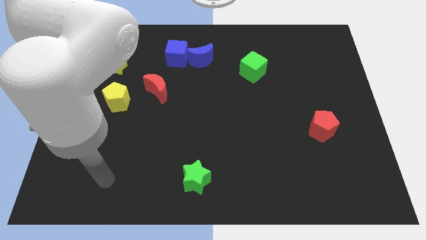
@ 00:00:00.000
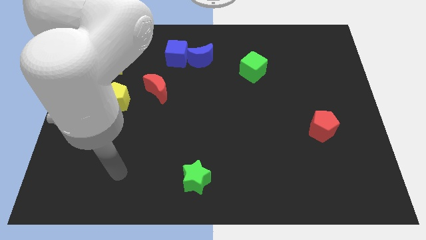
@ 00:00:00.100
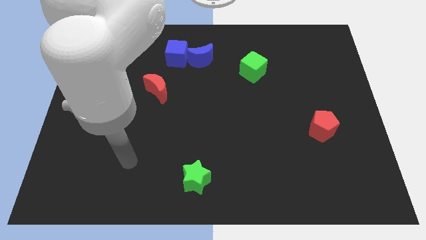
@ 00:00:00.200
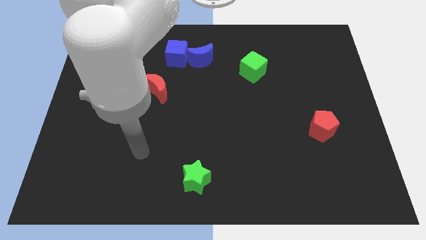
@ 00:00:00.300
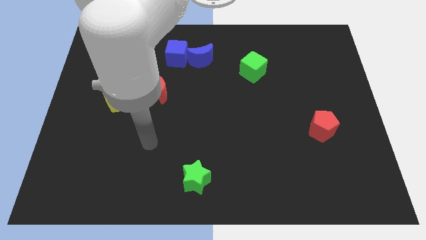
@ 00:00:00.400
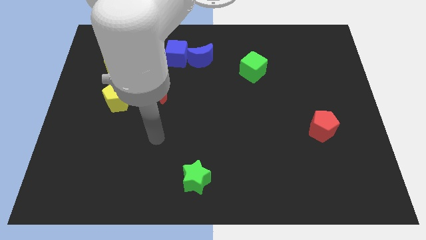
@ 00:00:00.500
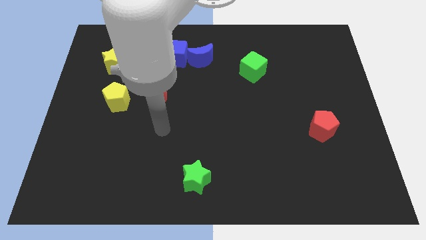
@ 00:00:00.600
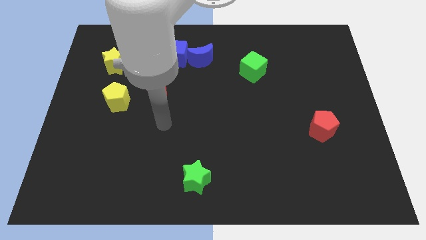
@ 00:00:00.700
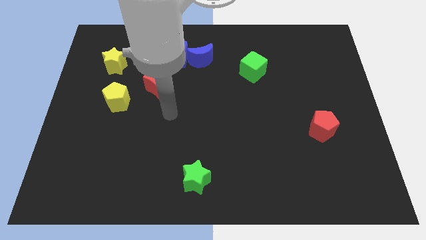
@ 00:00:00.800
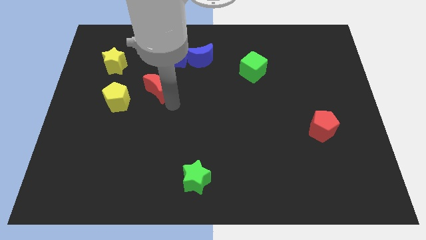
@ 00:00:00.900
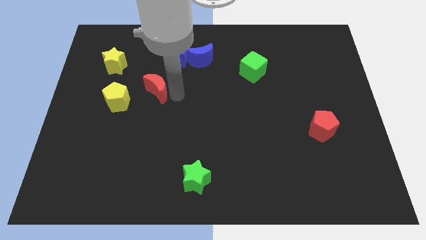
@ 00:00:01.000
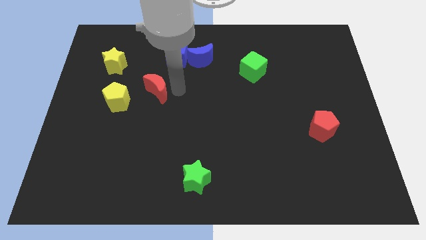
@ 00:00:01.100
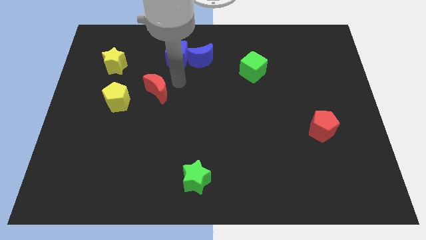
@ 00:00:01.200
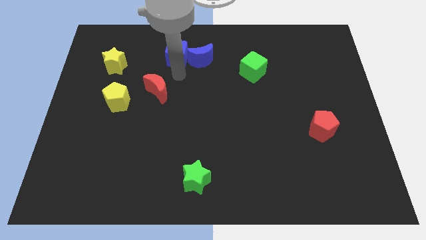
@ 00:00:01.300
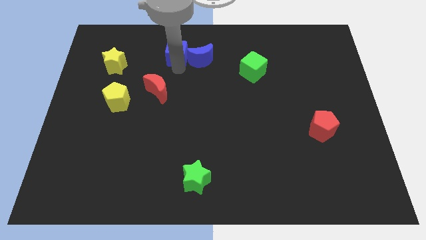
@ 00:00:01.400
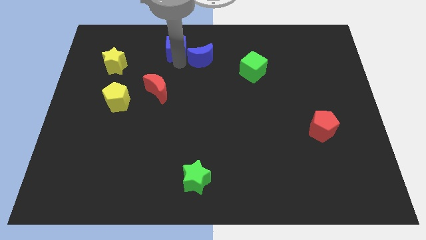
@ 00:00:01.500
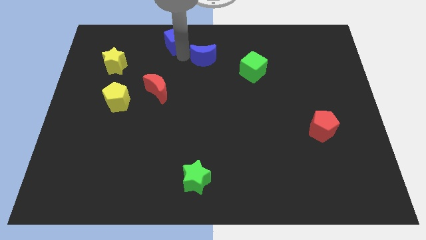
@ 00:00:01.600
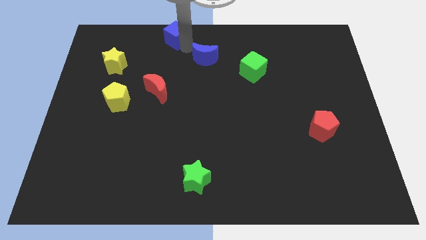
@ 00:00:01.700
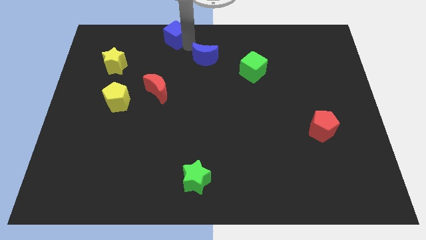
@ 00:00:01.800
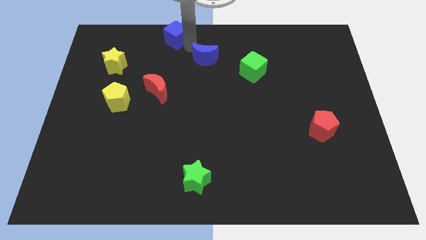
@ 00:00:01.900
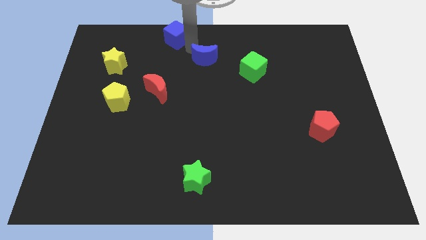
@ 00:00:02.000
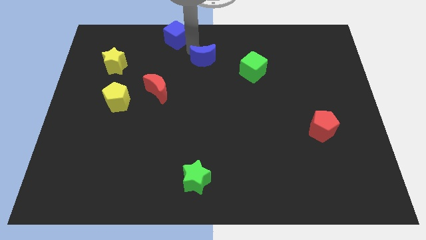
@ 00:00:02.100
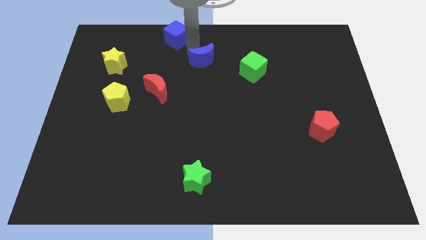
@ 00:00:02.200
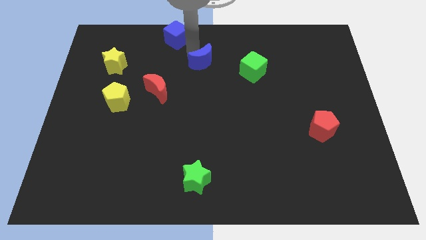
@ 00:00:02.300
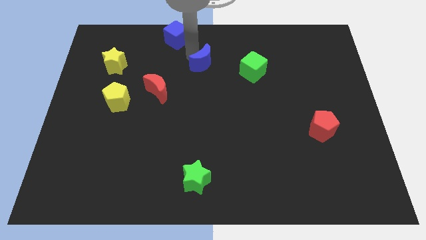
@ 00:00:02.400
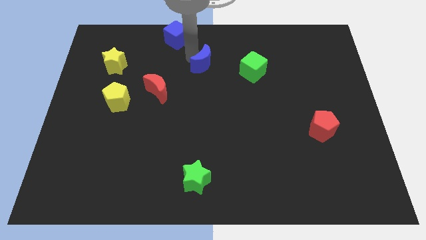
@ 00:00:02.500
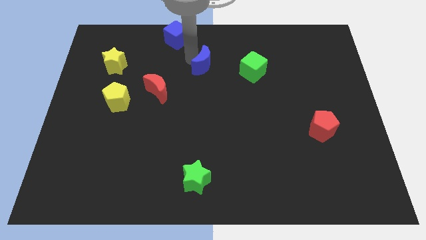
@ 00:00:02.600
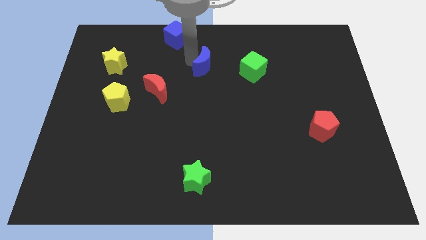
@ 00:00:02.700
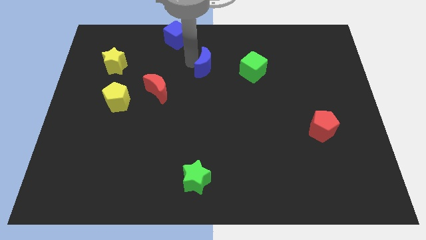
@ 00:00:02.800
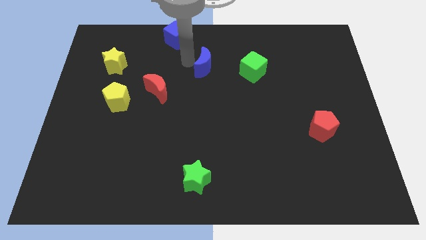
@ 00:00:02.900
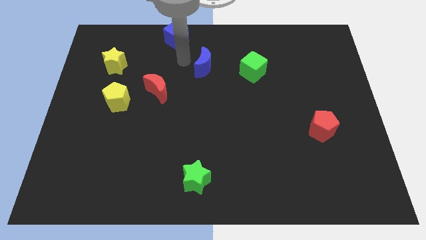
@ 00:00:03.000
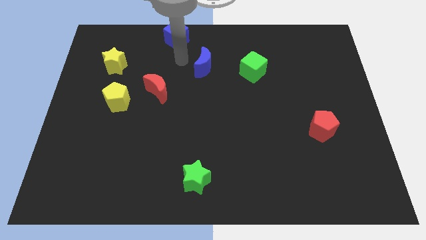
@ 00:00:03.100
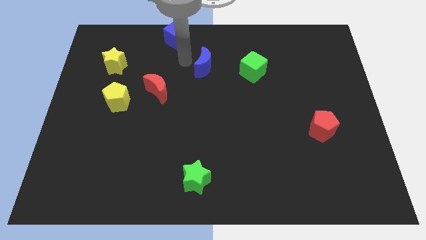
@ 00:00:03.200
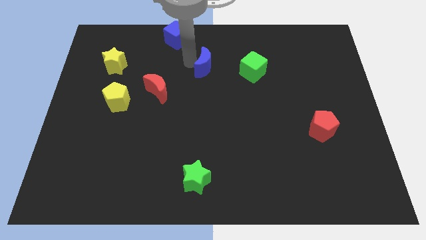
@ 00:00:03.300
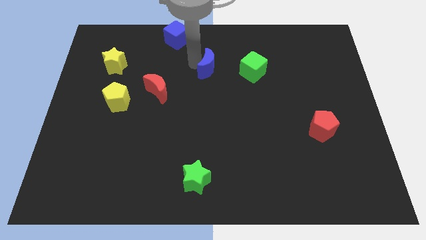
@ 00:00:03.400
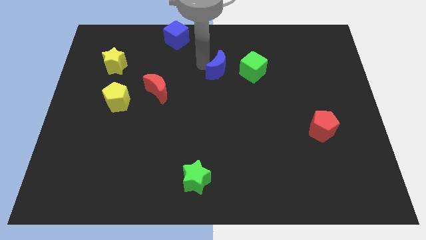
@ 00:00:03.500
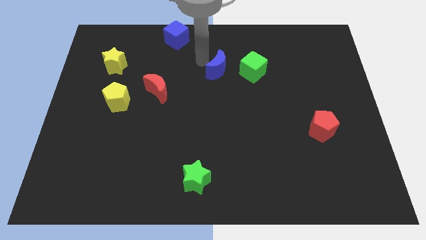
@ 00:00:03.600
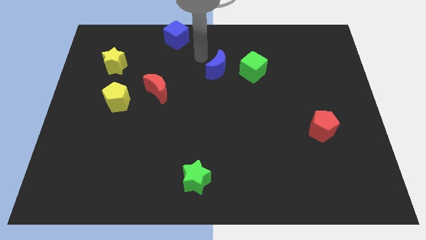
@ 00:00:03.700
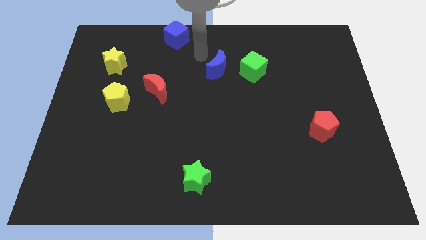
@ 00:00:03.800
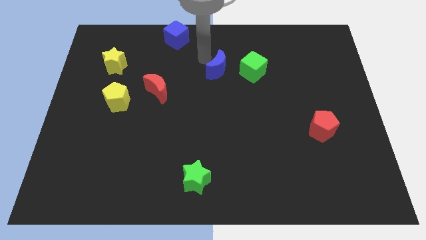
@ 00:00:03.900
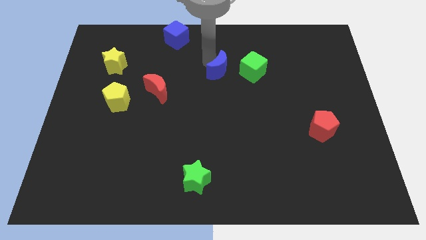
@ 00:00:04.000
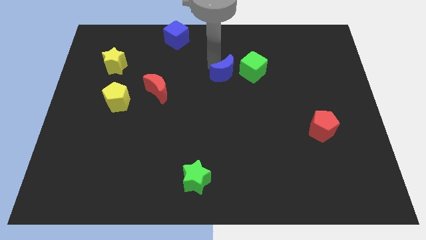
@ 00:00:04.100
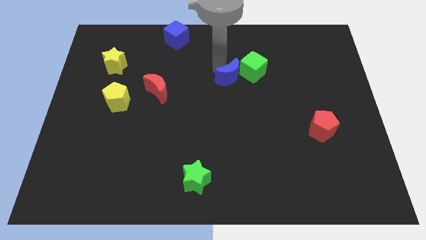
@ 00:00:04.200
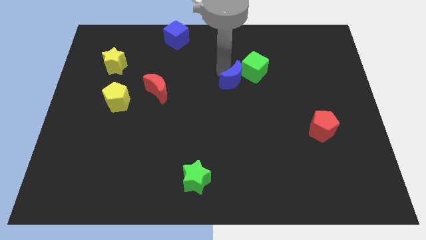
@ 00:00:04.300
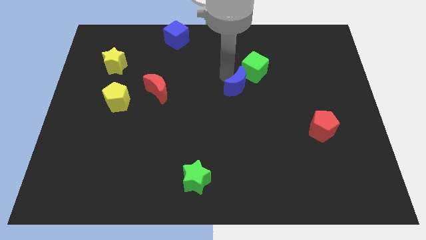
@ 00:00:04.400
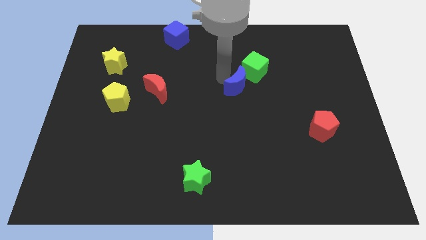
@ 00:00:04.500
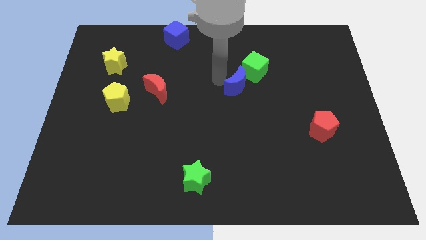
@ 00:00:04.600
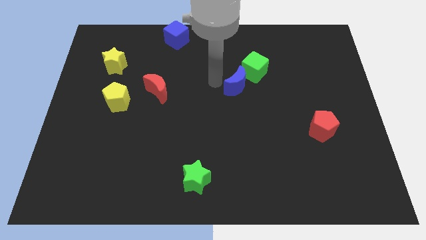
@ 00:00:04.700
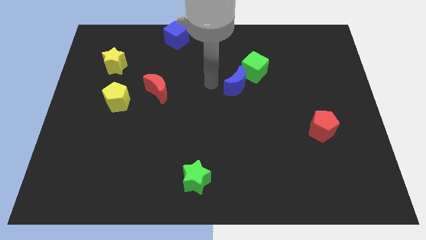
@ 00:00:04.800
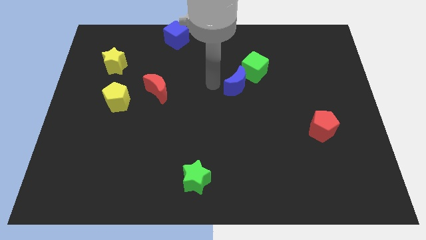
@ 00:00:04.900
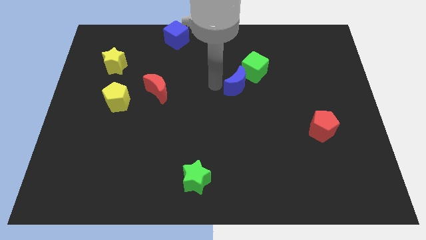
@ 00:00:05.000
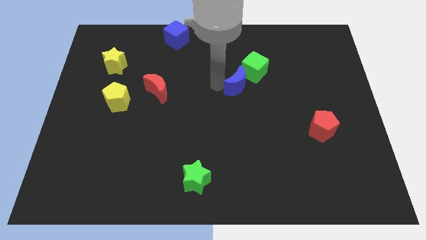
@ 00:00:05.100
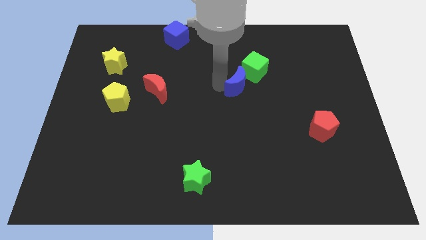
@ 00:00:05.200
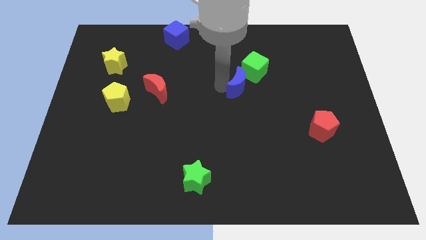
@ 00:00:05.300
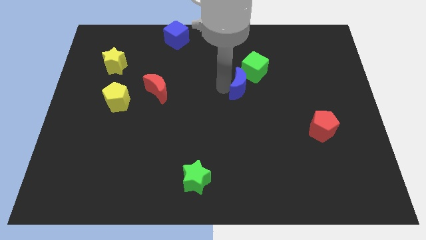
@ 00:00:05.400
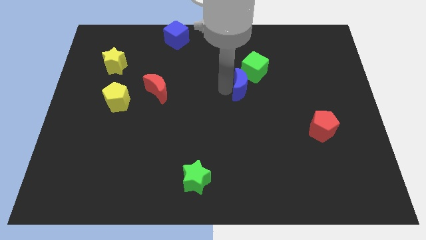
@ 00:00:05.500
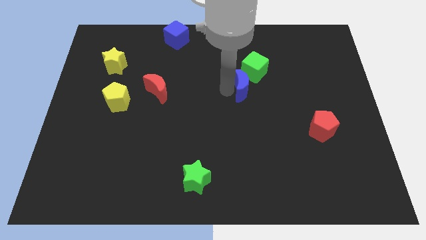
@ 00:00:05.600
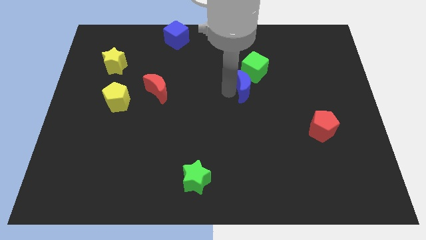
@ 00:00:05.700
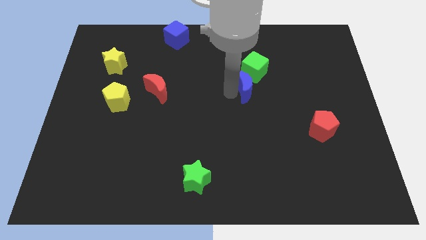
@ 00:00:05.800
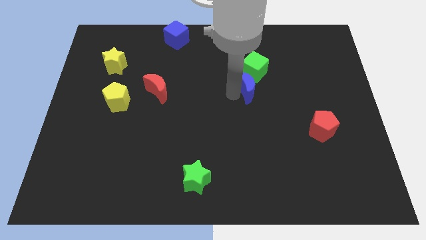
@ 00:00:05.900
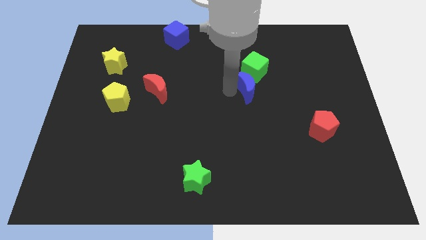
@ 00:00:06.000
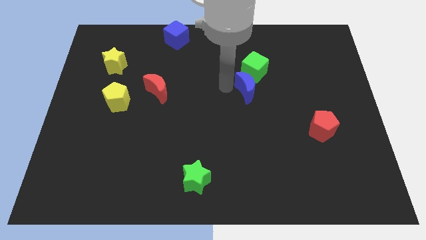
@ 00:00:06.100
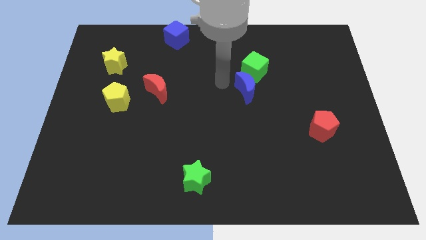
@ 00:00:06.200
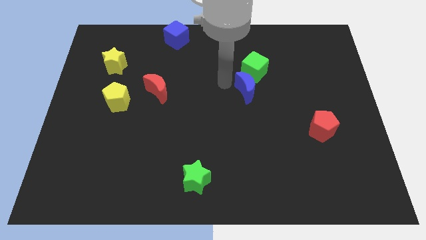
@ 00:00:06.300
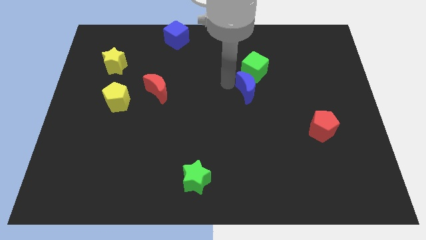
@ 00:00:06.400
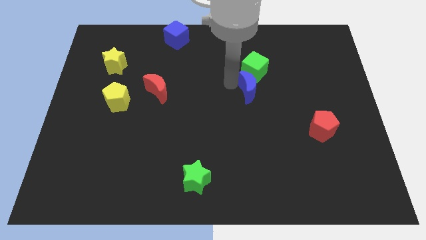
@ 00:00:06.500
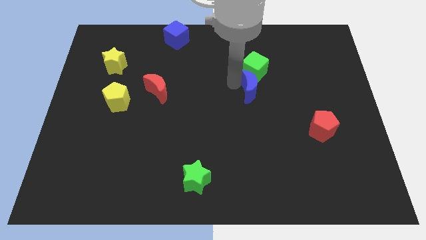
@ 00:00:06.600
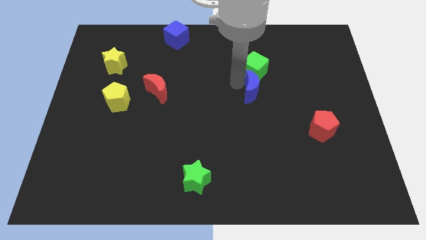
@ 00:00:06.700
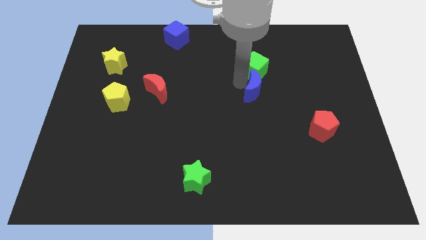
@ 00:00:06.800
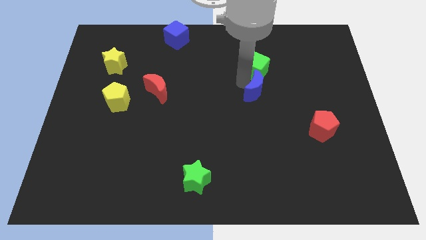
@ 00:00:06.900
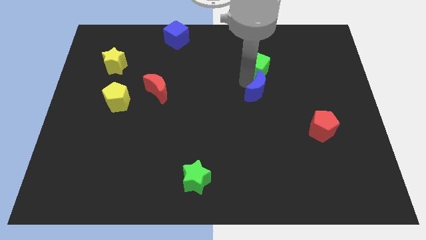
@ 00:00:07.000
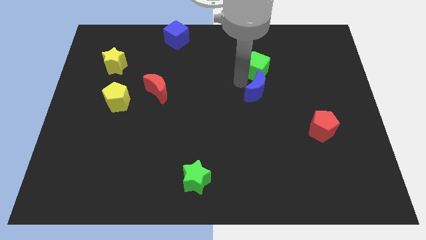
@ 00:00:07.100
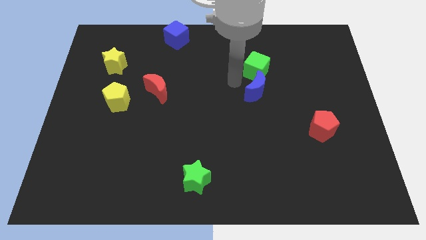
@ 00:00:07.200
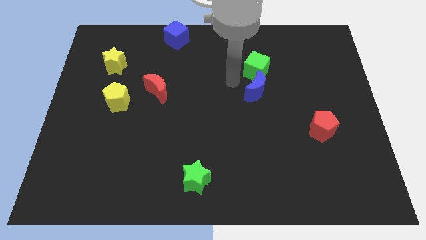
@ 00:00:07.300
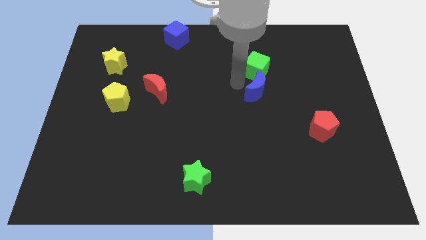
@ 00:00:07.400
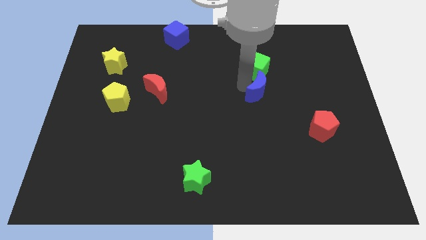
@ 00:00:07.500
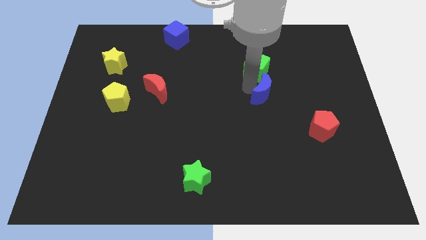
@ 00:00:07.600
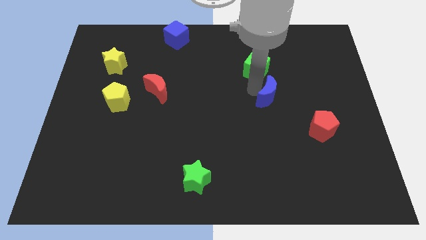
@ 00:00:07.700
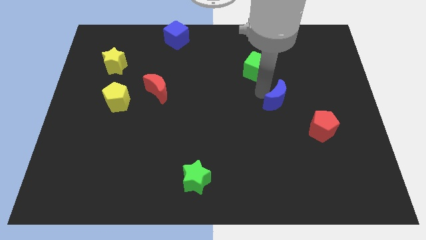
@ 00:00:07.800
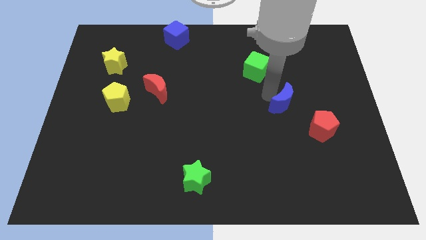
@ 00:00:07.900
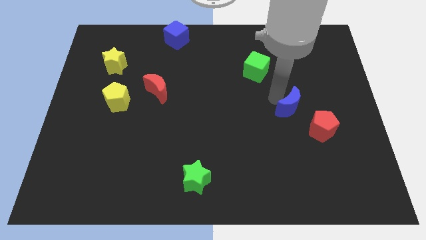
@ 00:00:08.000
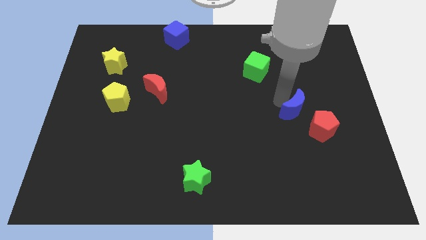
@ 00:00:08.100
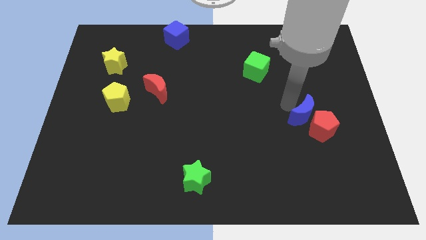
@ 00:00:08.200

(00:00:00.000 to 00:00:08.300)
push the blue moon next to the red pentagon
